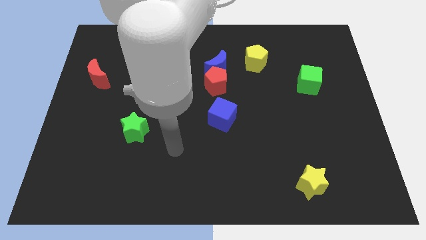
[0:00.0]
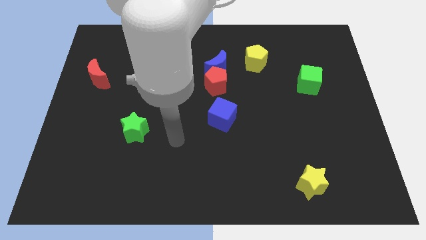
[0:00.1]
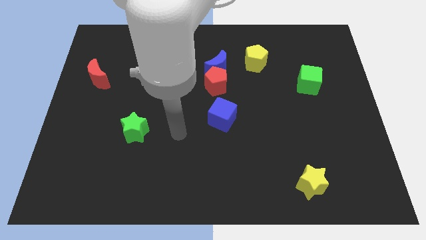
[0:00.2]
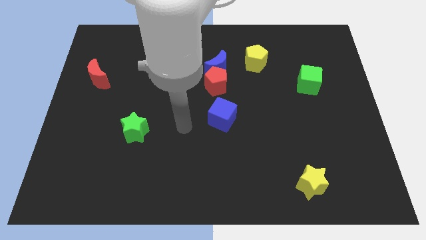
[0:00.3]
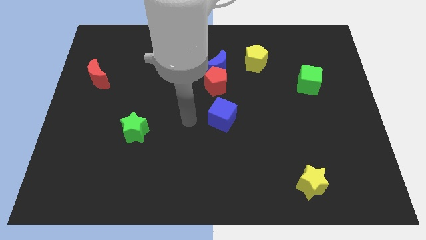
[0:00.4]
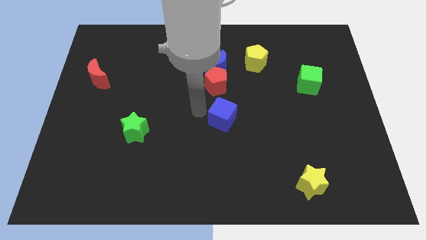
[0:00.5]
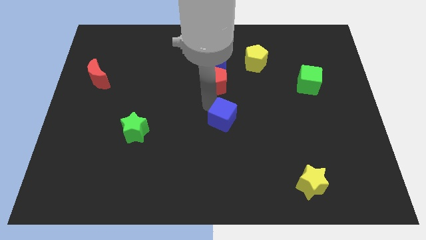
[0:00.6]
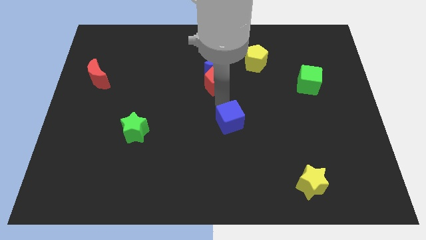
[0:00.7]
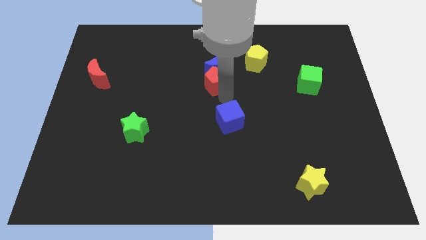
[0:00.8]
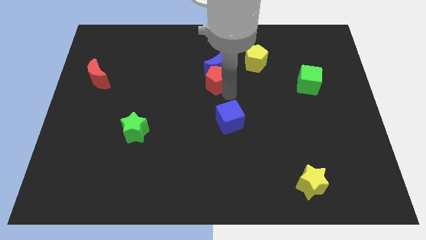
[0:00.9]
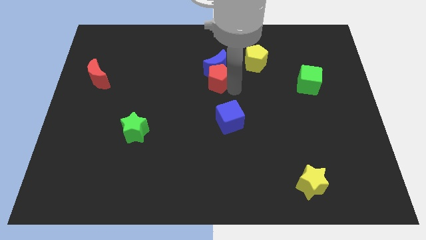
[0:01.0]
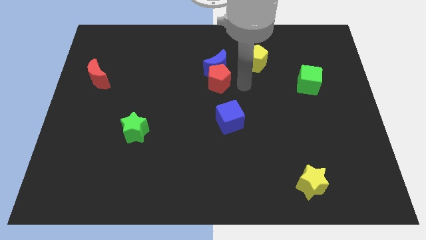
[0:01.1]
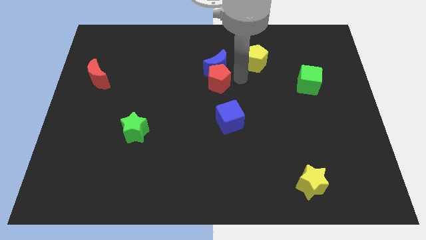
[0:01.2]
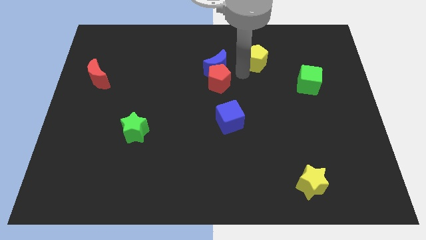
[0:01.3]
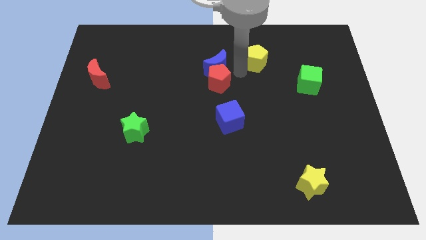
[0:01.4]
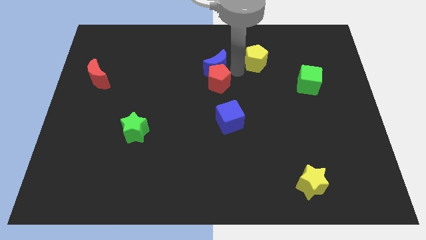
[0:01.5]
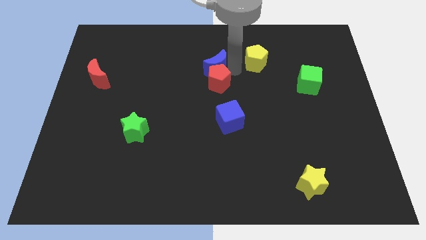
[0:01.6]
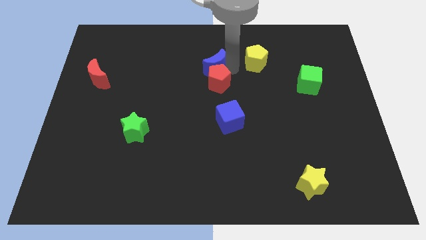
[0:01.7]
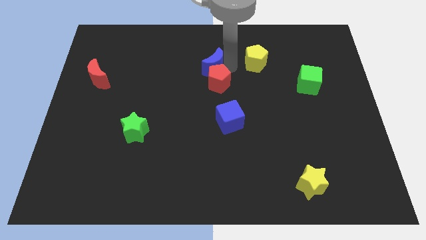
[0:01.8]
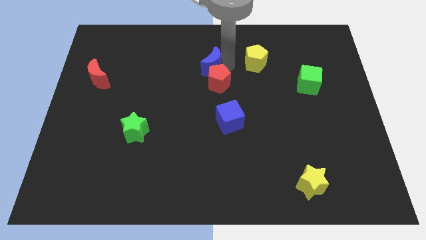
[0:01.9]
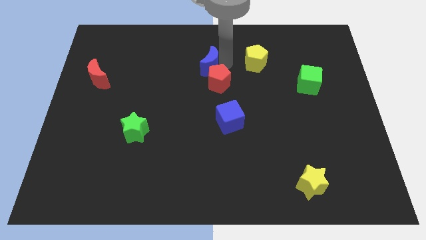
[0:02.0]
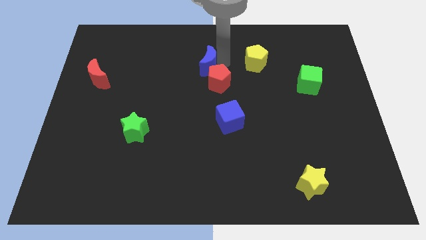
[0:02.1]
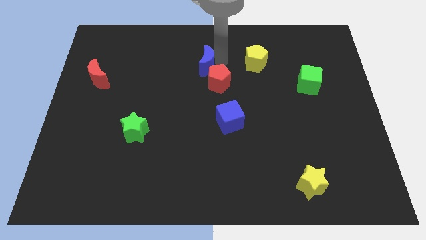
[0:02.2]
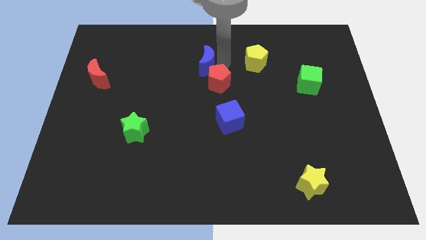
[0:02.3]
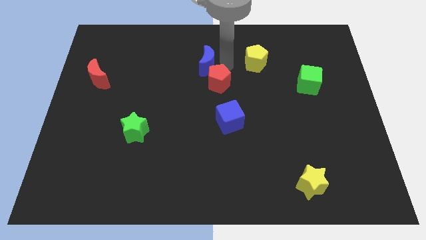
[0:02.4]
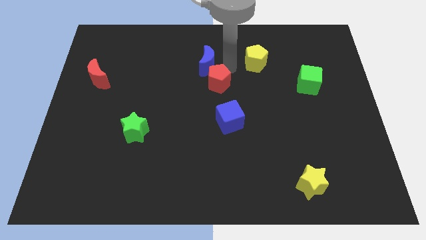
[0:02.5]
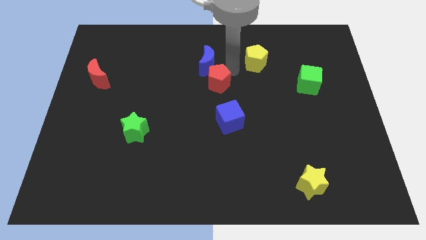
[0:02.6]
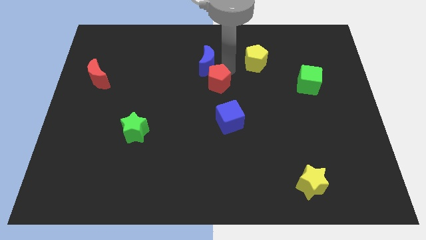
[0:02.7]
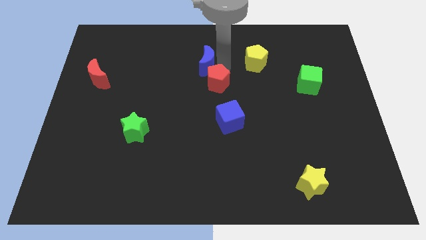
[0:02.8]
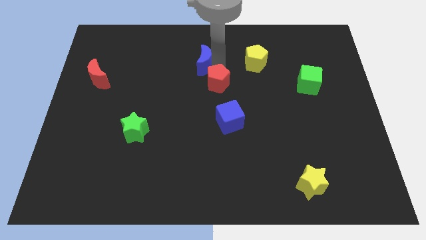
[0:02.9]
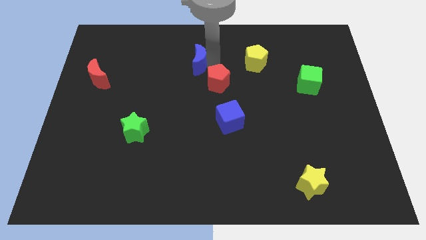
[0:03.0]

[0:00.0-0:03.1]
pull the blue moon apart from the red pentagon and yellow pentagon

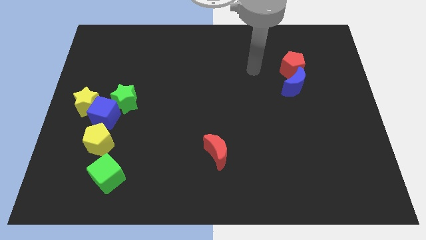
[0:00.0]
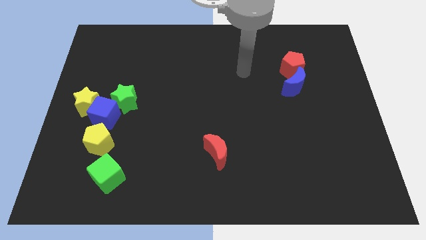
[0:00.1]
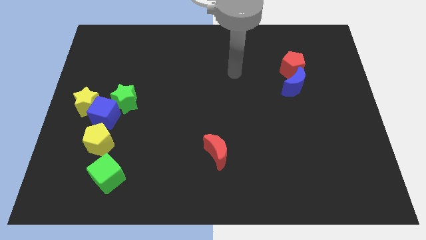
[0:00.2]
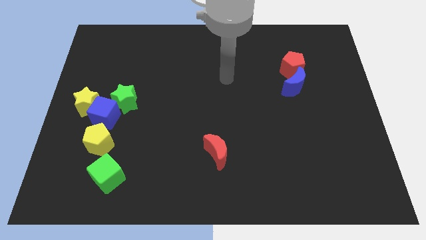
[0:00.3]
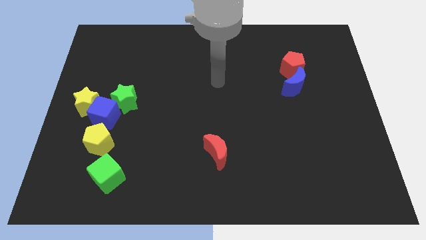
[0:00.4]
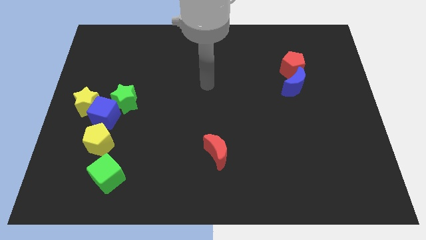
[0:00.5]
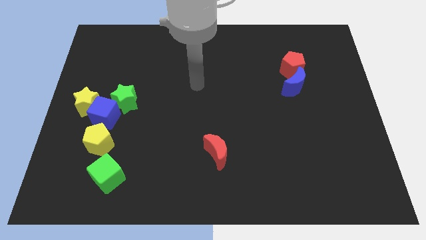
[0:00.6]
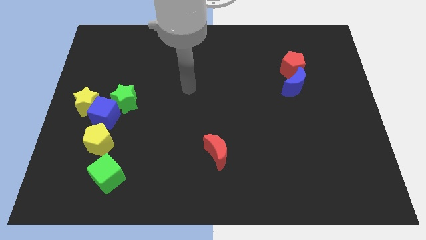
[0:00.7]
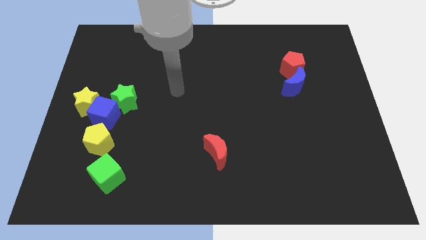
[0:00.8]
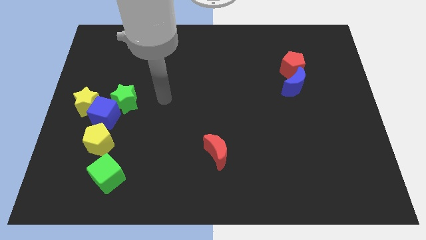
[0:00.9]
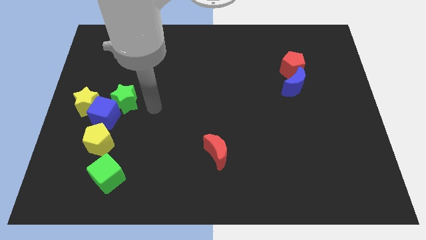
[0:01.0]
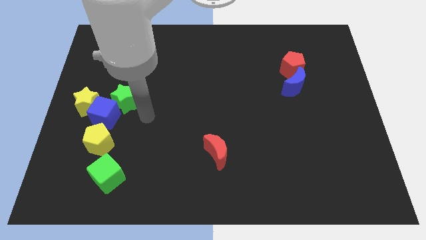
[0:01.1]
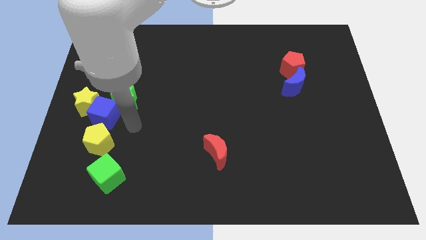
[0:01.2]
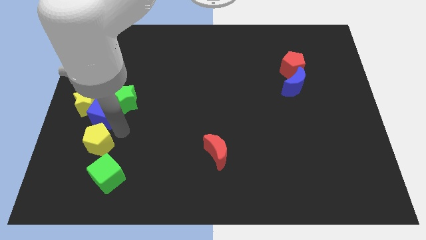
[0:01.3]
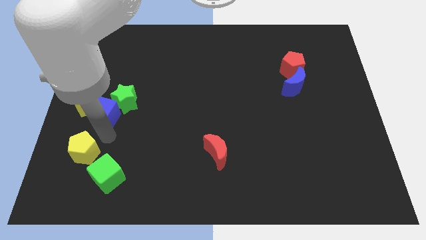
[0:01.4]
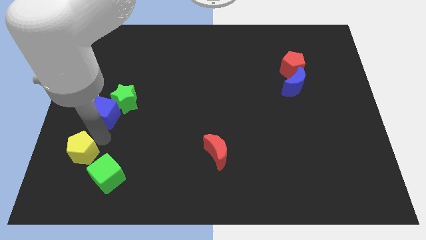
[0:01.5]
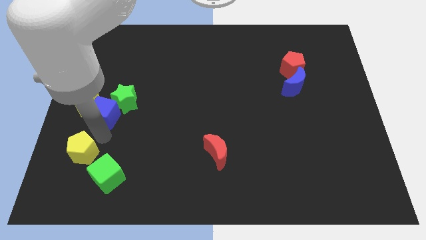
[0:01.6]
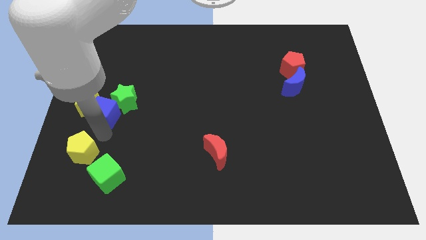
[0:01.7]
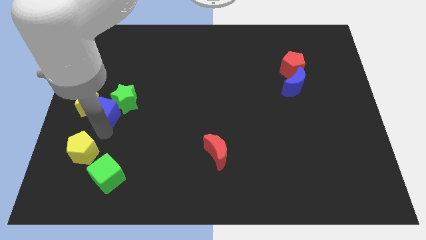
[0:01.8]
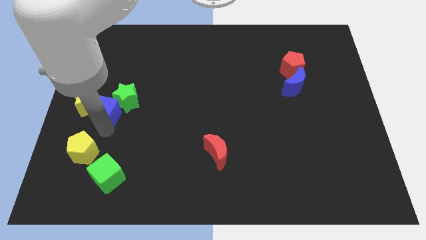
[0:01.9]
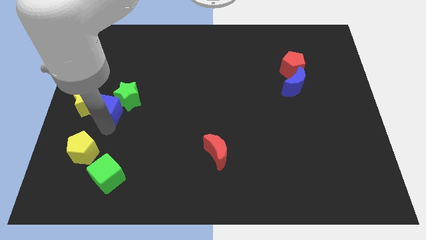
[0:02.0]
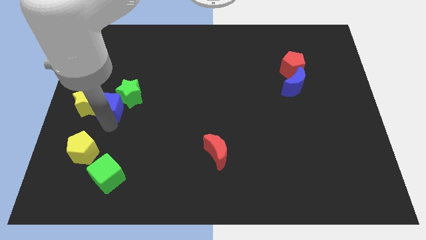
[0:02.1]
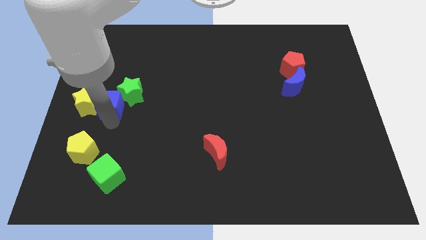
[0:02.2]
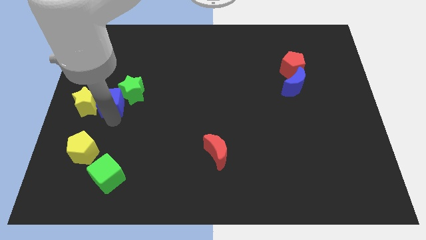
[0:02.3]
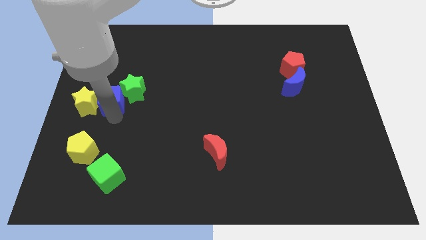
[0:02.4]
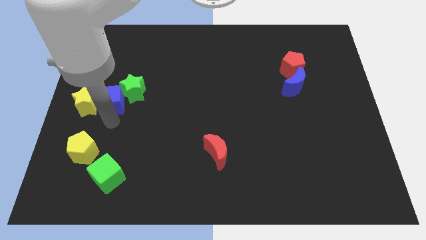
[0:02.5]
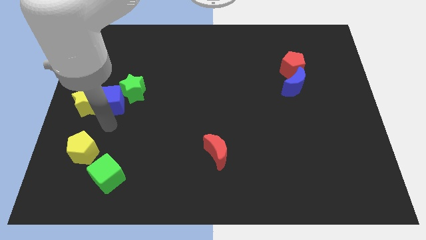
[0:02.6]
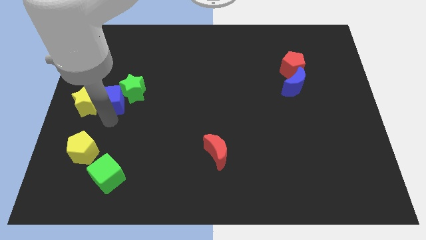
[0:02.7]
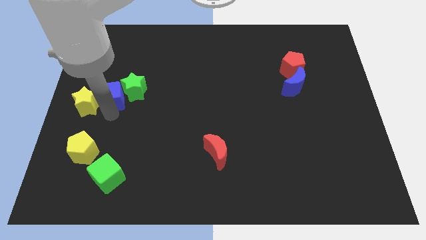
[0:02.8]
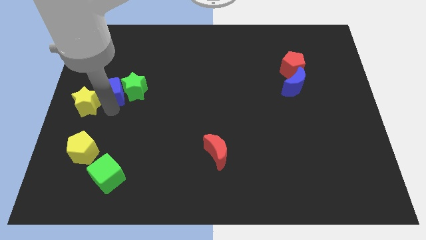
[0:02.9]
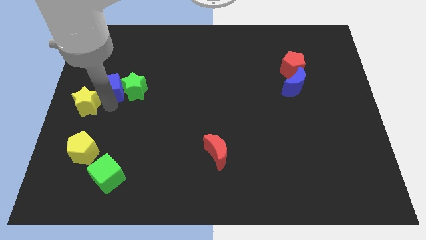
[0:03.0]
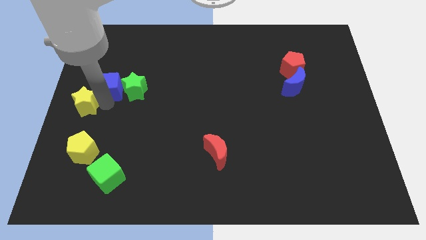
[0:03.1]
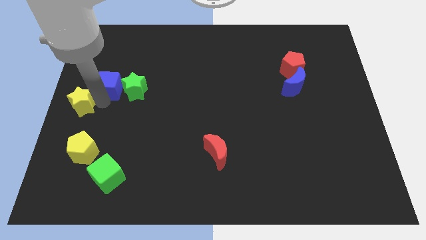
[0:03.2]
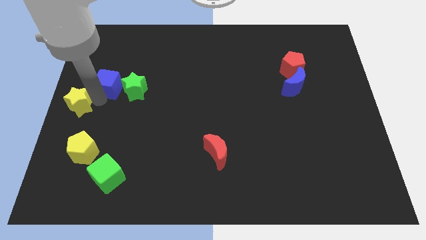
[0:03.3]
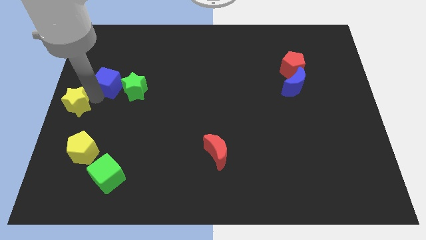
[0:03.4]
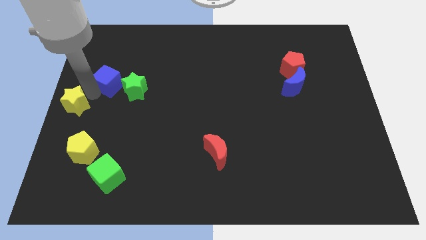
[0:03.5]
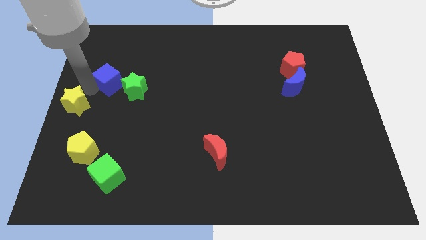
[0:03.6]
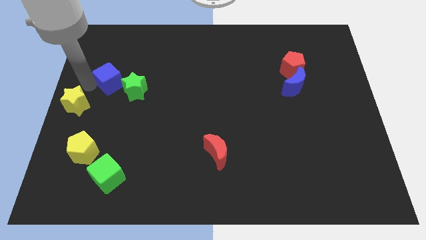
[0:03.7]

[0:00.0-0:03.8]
separate the blue cube from the clump

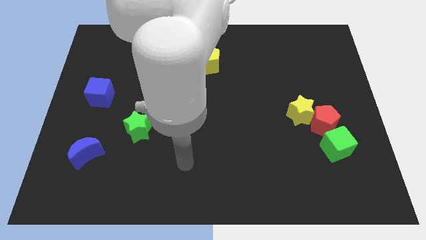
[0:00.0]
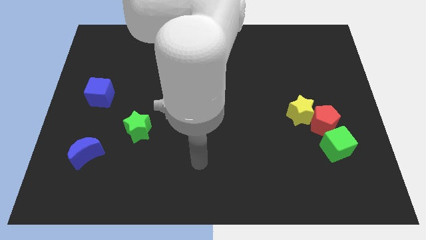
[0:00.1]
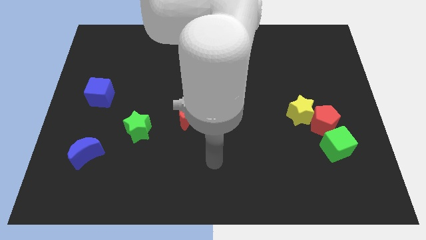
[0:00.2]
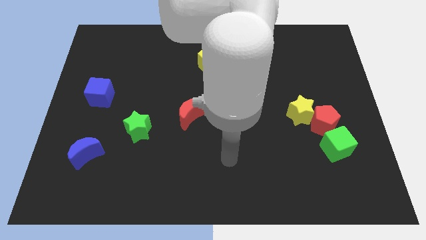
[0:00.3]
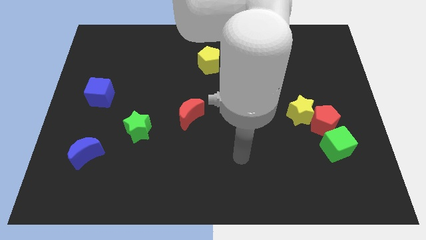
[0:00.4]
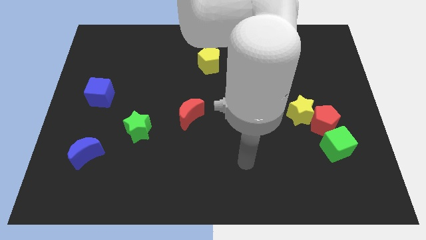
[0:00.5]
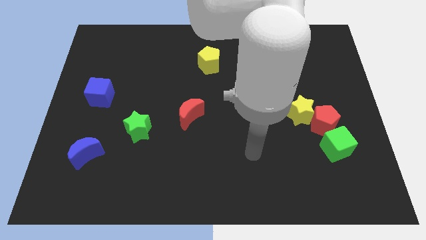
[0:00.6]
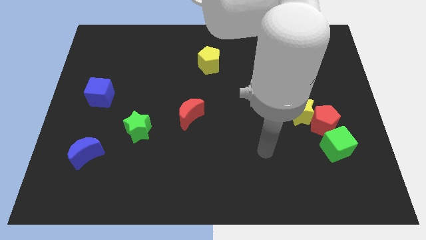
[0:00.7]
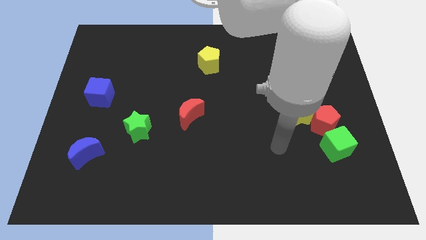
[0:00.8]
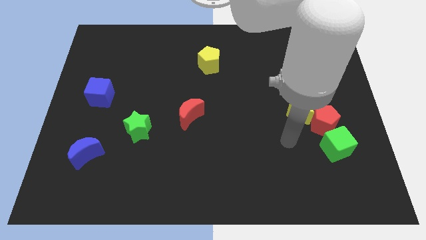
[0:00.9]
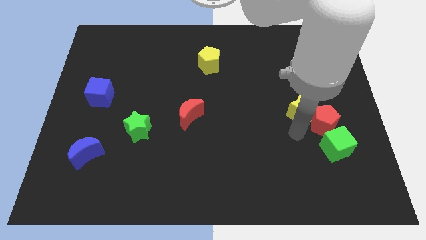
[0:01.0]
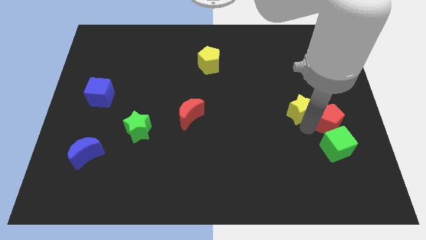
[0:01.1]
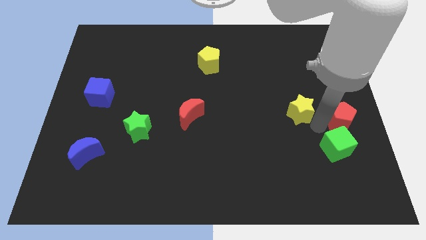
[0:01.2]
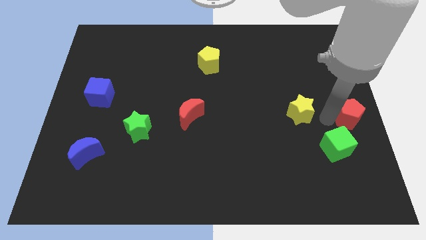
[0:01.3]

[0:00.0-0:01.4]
separate the yellow star from the red pentagon

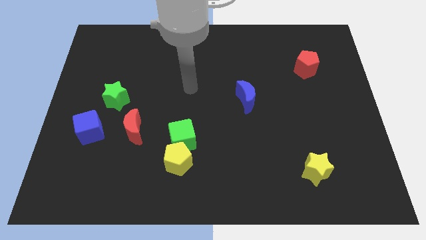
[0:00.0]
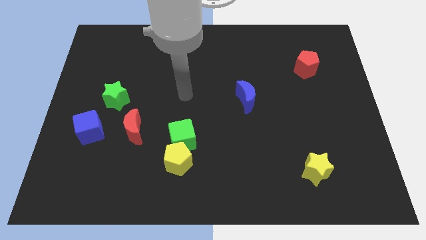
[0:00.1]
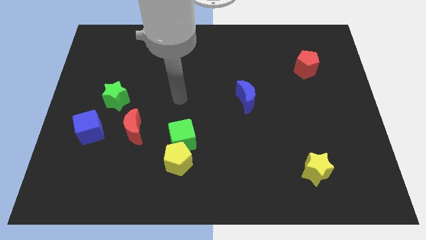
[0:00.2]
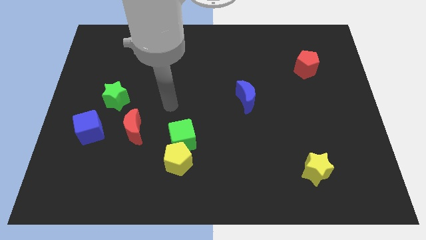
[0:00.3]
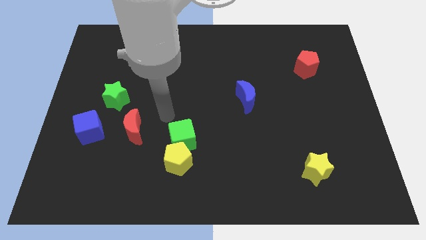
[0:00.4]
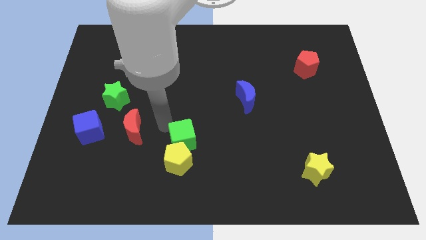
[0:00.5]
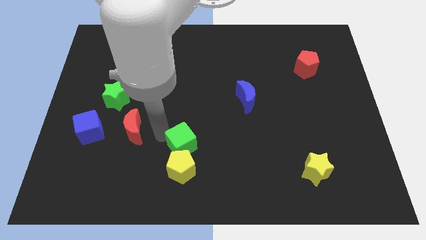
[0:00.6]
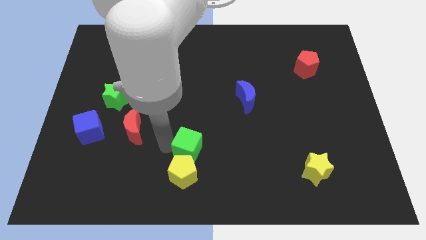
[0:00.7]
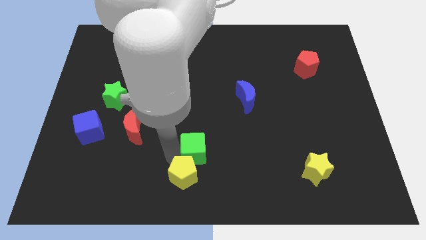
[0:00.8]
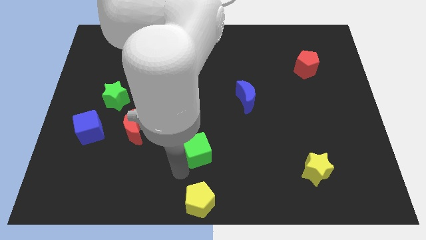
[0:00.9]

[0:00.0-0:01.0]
move the green cube away from the yellow pentagon
